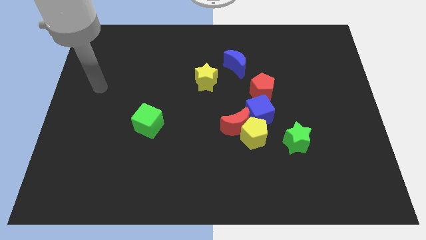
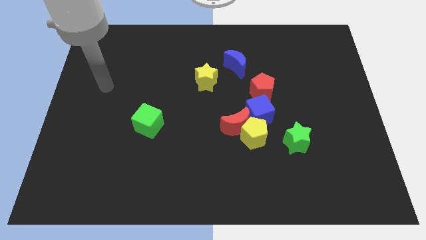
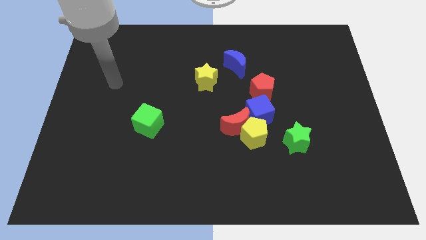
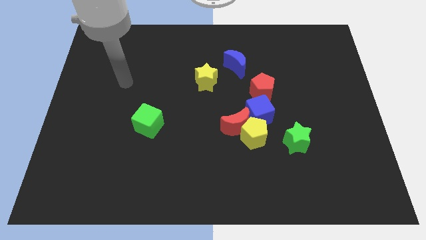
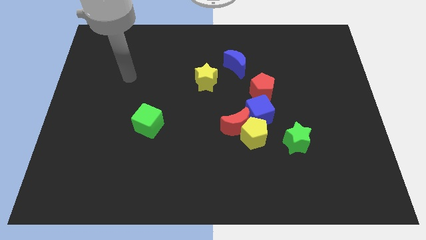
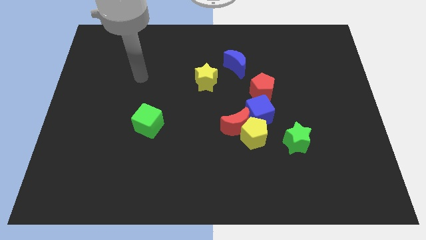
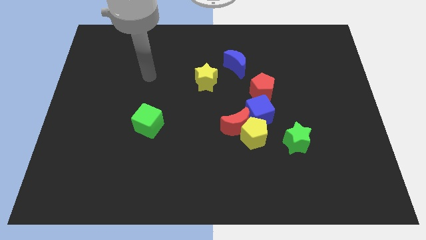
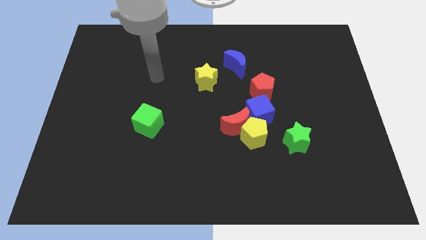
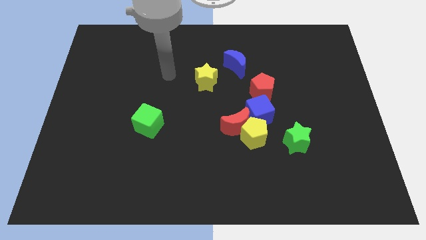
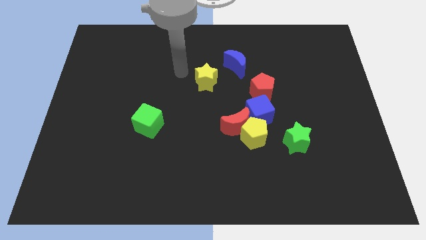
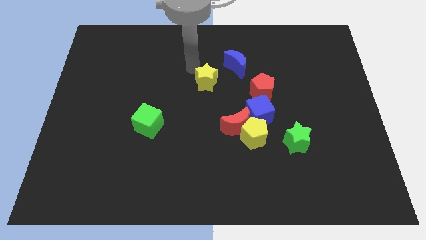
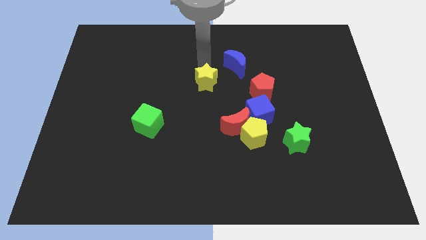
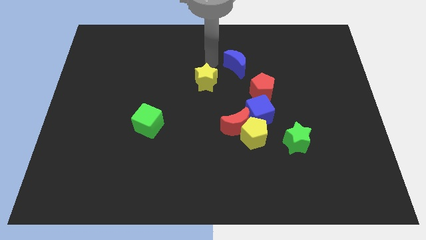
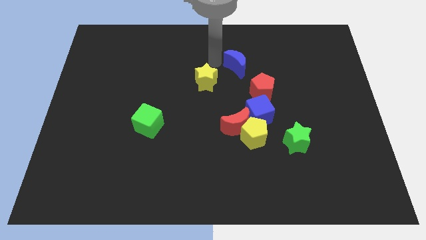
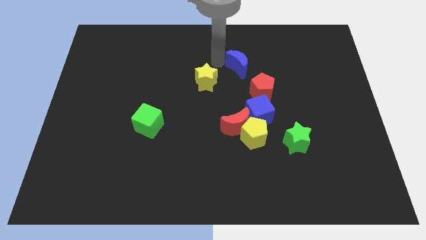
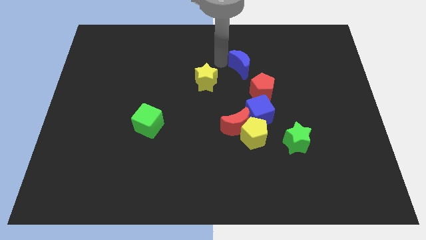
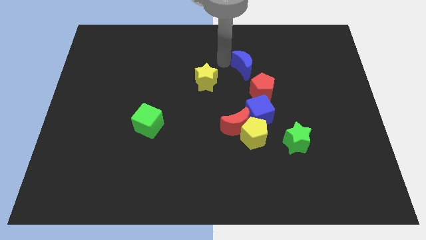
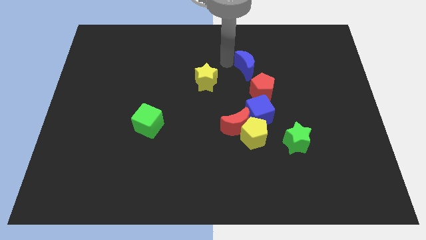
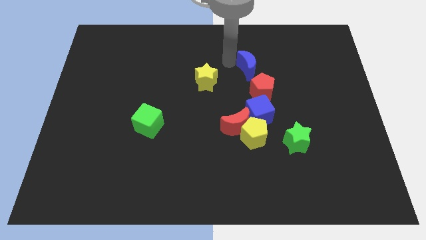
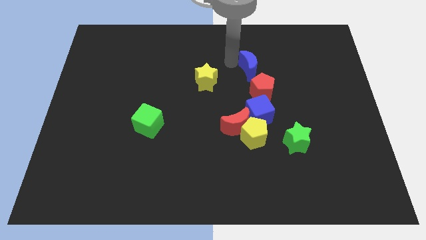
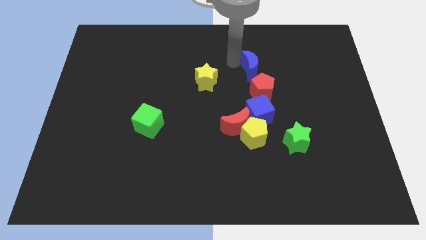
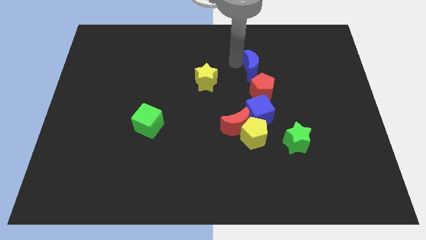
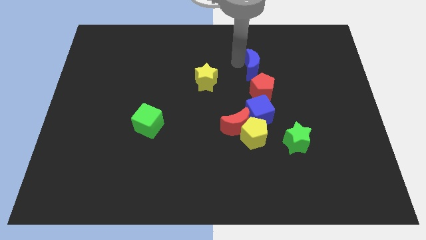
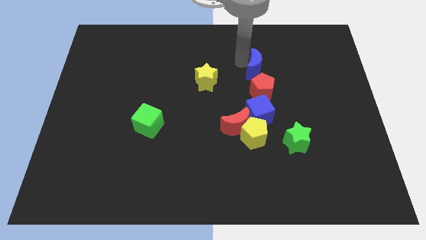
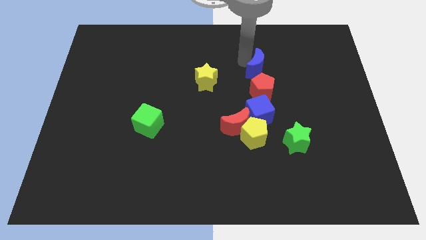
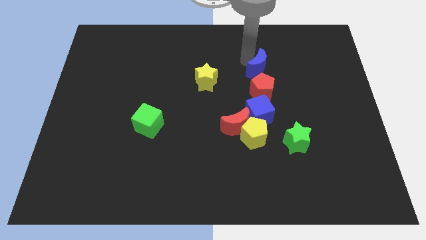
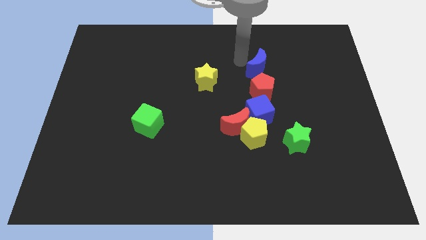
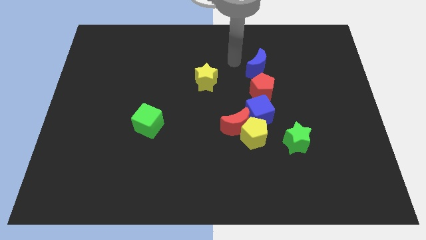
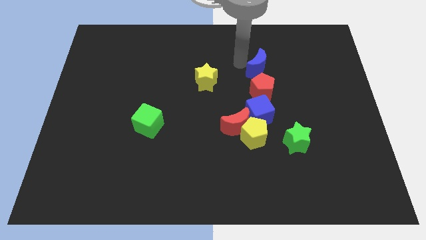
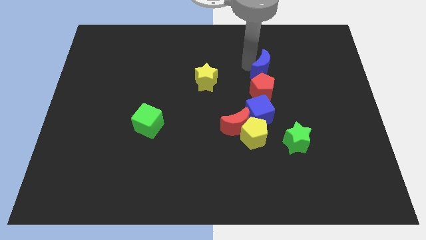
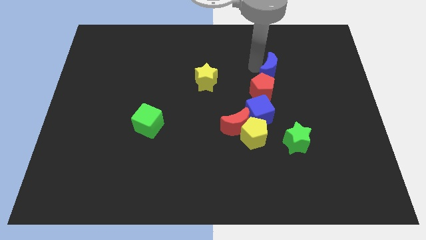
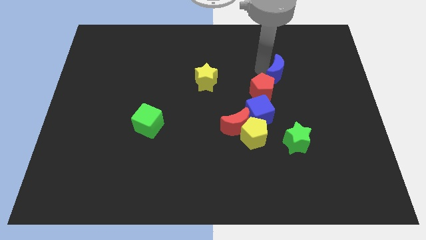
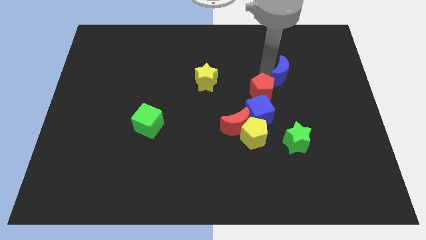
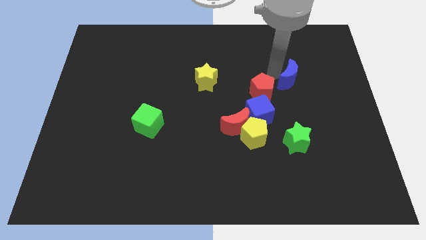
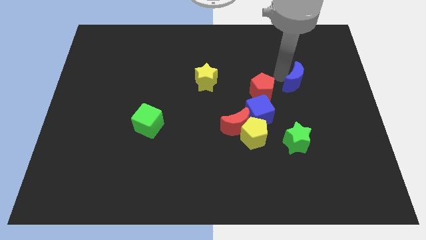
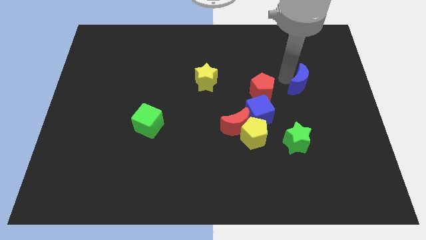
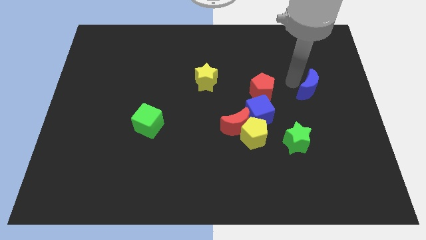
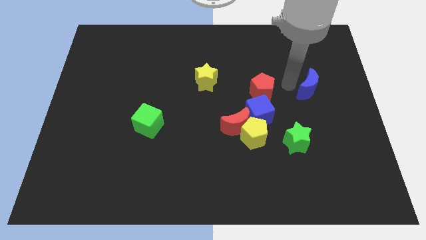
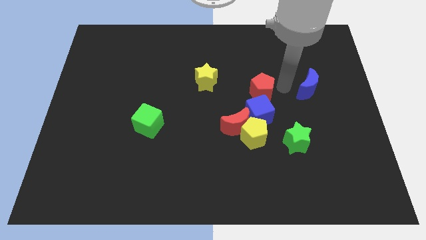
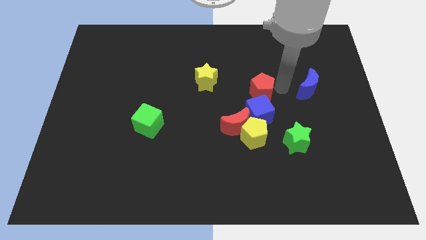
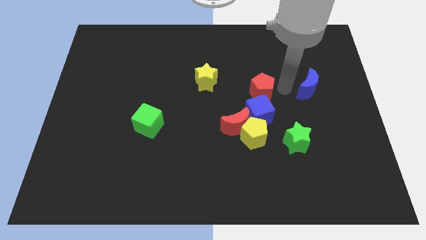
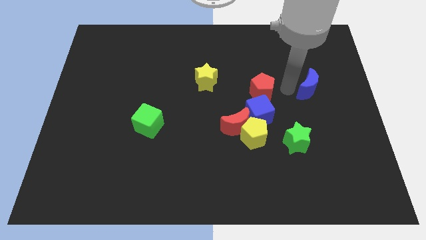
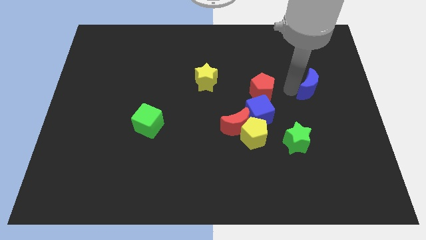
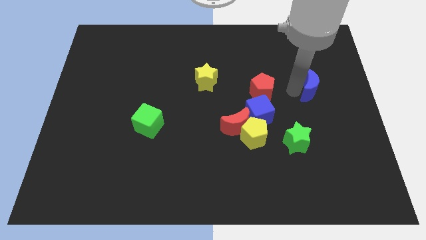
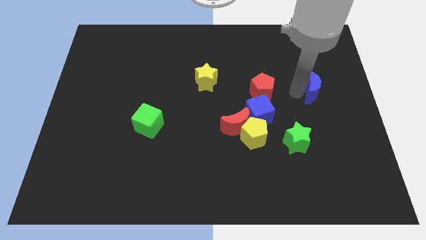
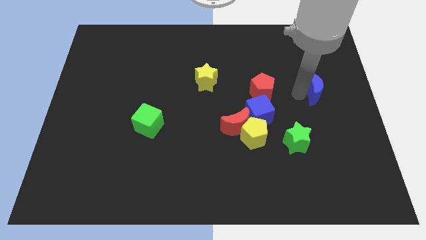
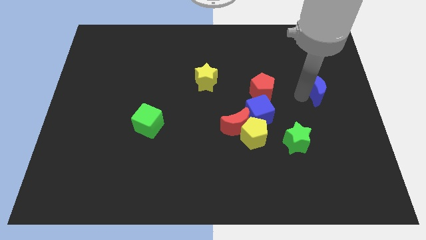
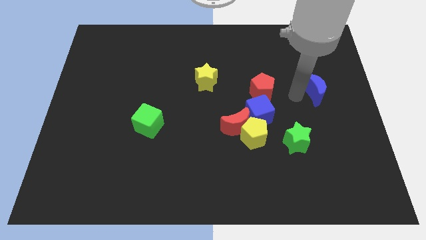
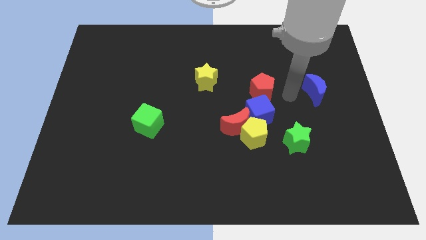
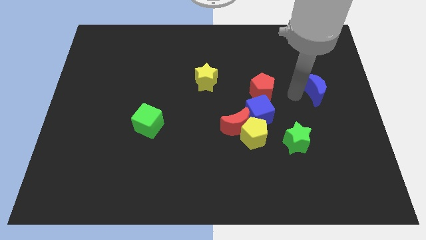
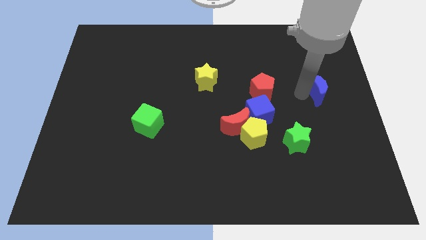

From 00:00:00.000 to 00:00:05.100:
slide the blue moon to the right side of the board

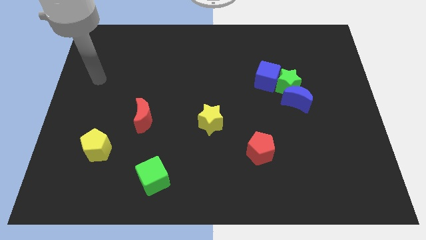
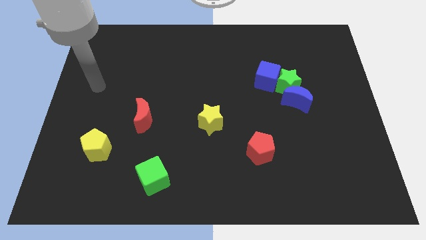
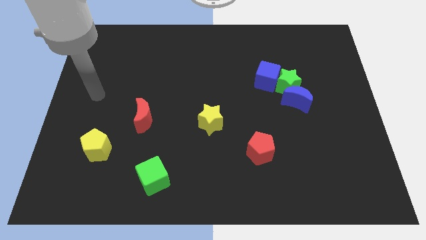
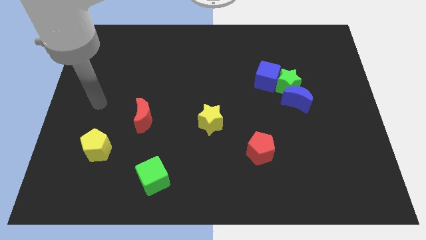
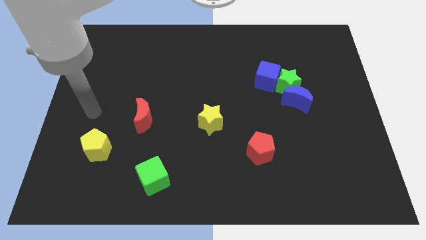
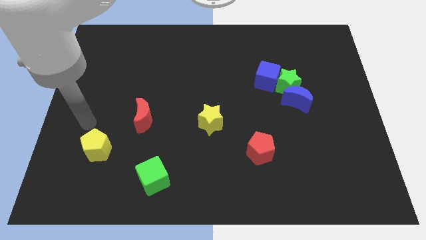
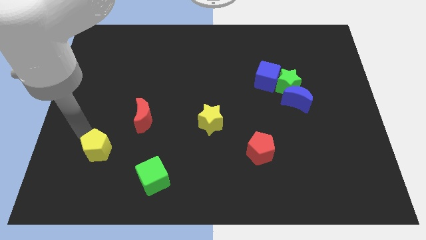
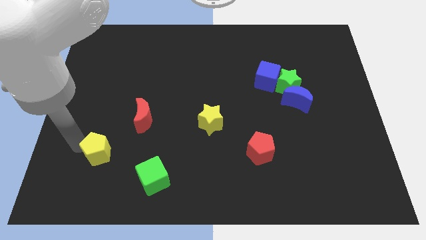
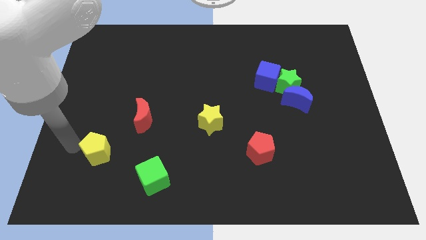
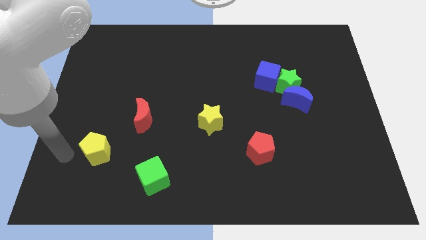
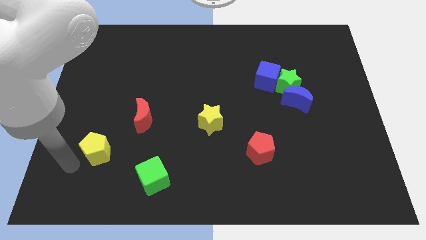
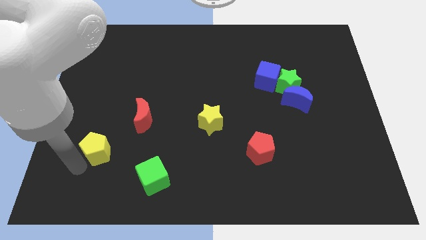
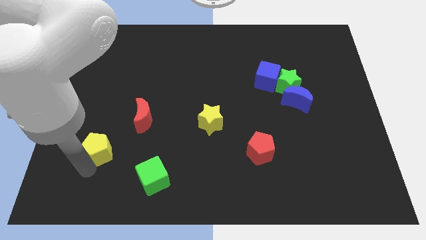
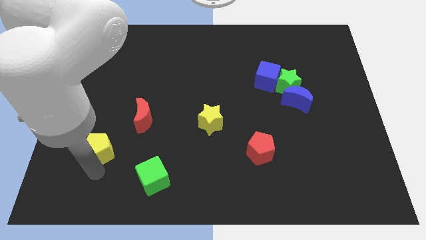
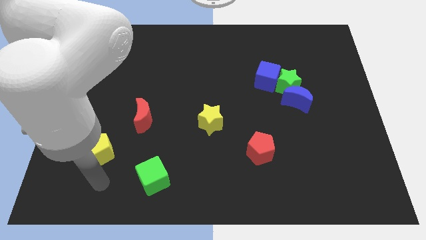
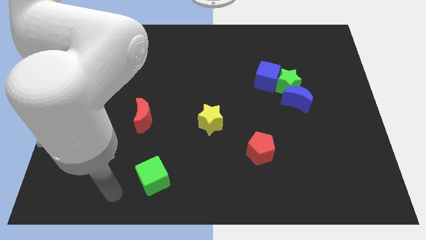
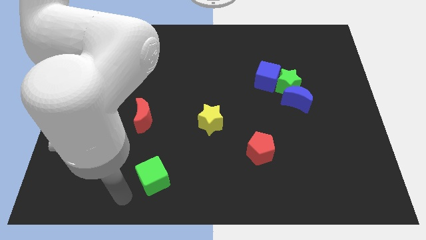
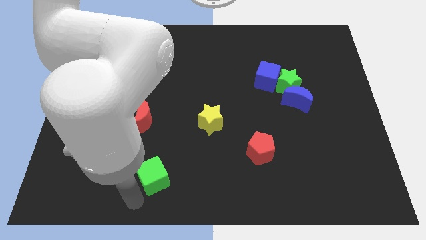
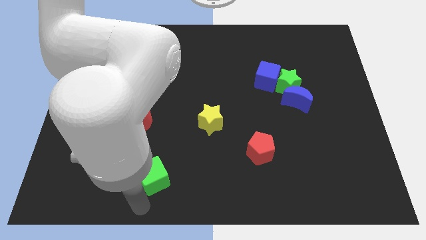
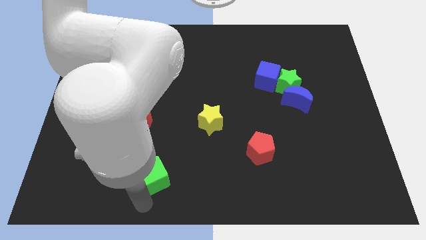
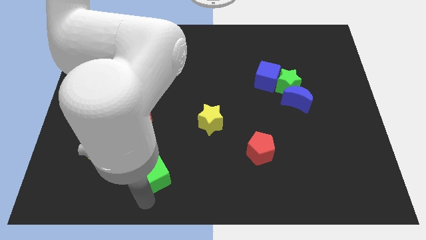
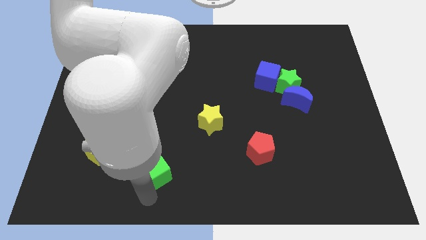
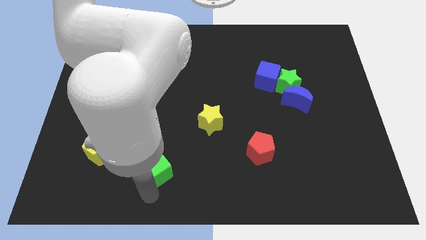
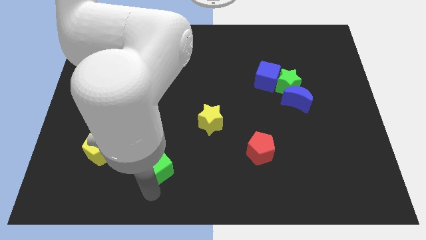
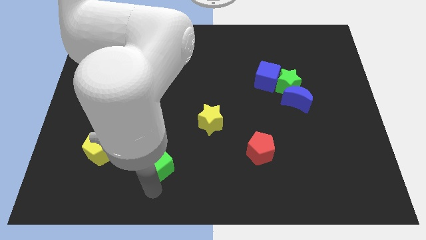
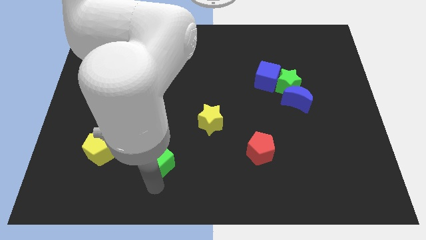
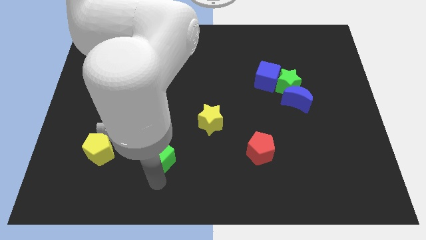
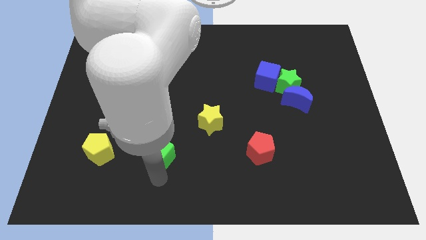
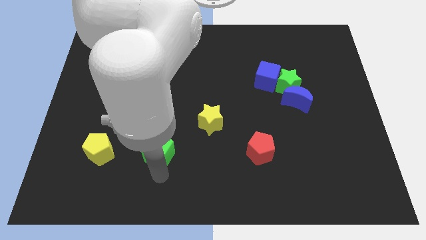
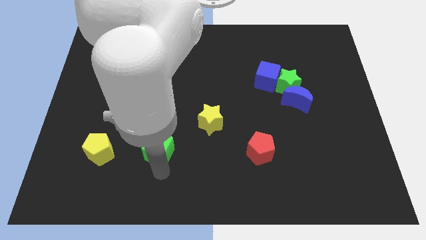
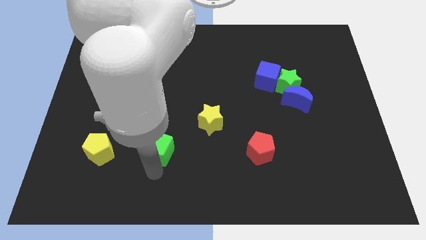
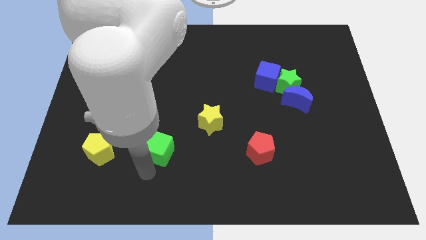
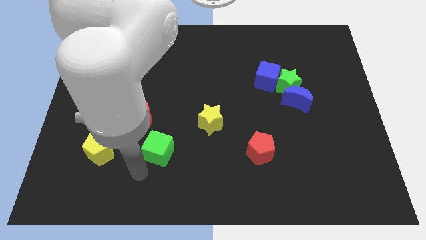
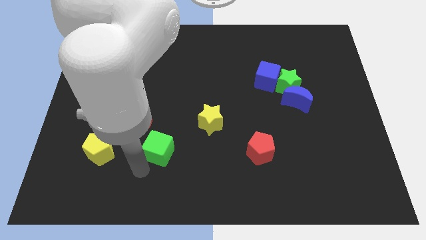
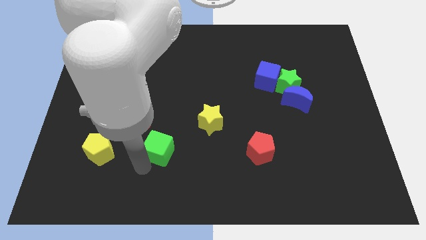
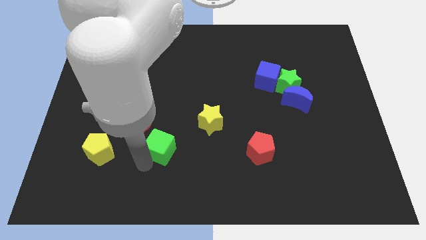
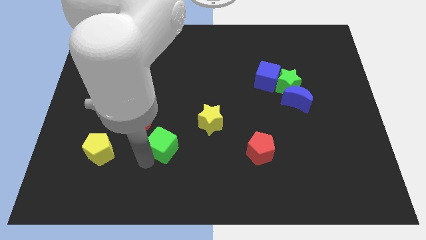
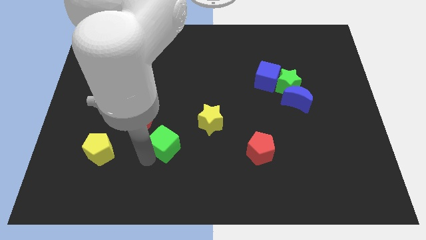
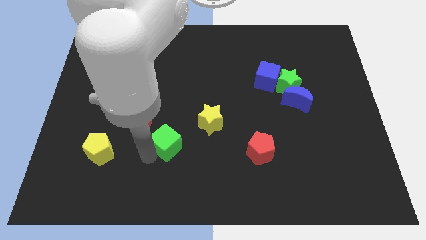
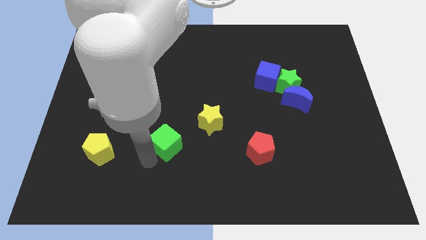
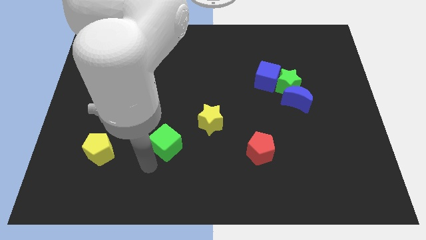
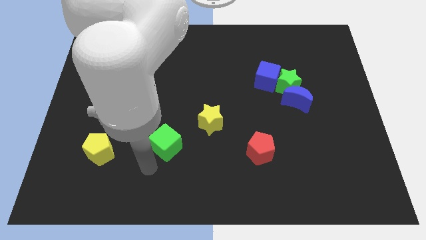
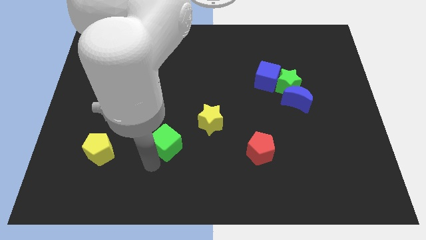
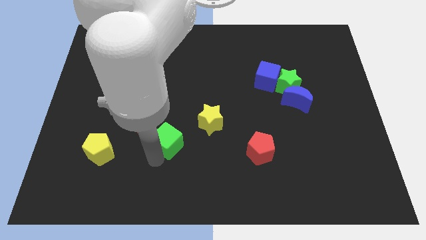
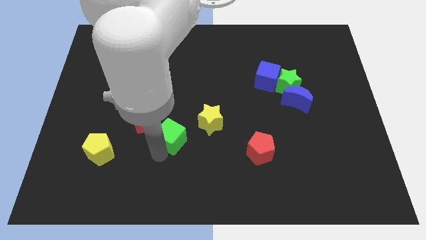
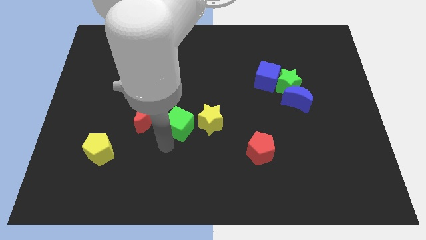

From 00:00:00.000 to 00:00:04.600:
push the green cube to the center of the board
